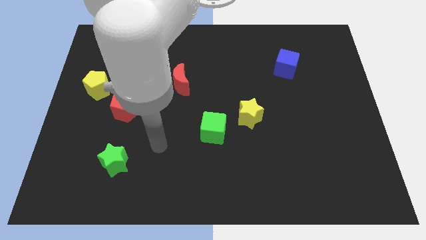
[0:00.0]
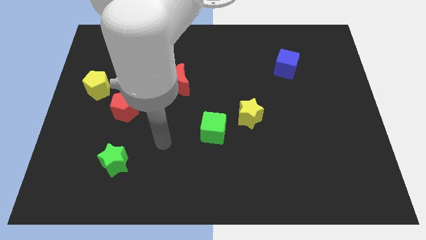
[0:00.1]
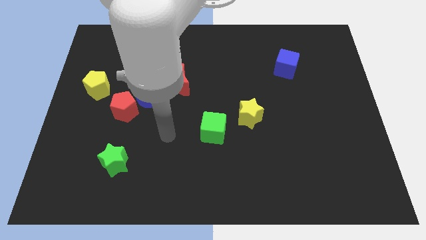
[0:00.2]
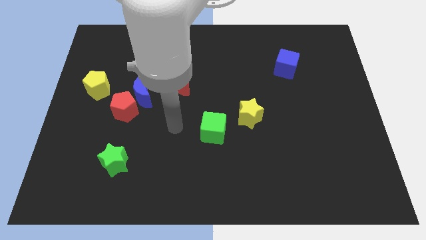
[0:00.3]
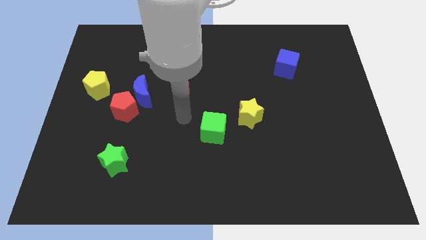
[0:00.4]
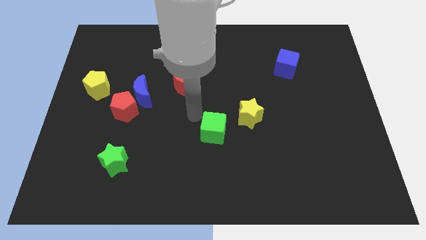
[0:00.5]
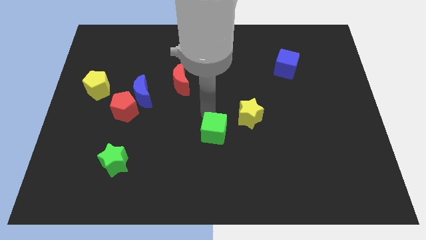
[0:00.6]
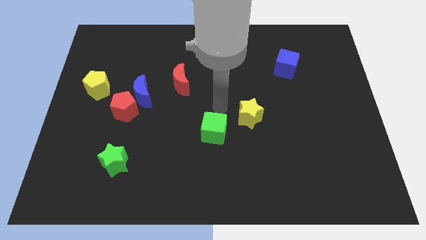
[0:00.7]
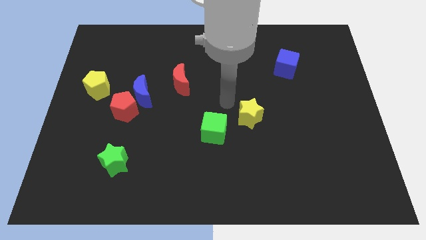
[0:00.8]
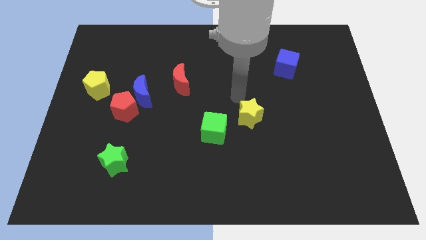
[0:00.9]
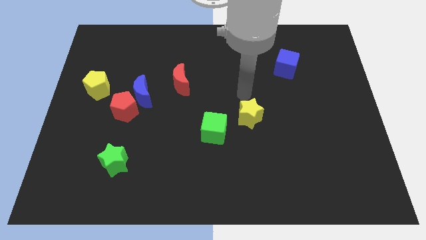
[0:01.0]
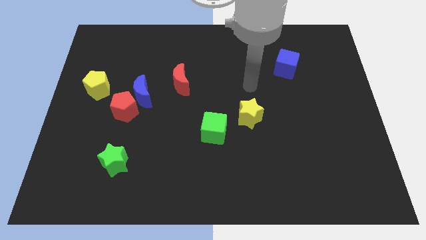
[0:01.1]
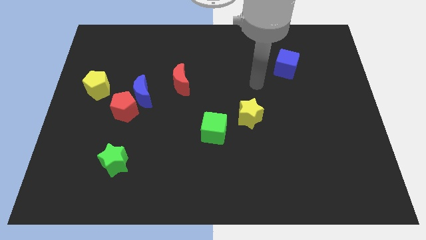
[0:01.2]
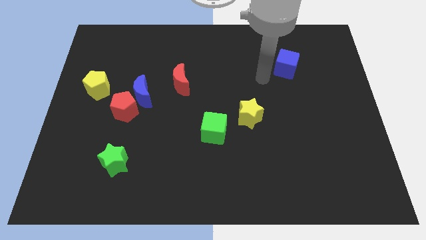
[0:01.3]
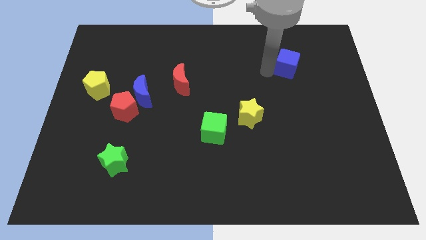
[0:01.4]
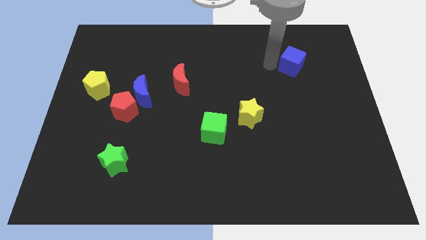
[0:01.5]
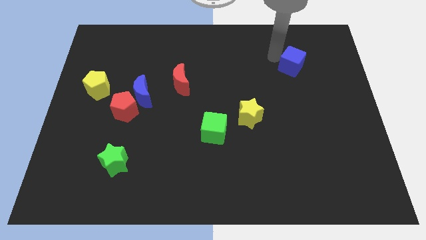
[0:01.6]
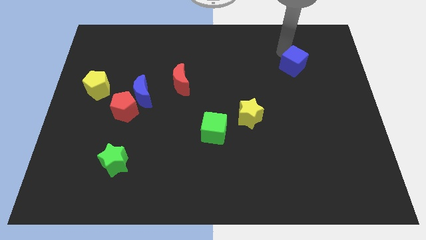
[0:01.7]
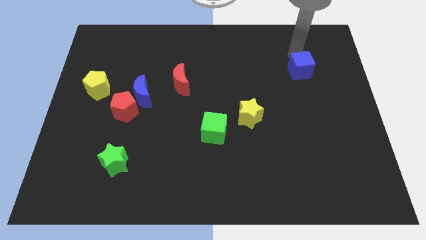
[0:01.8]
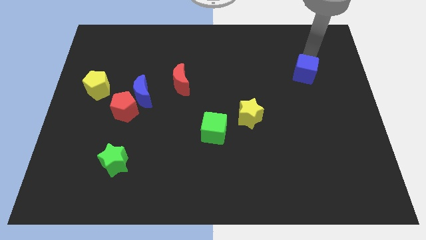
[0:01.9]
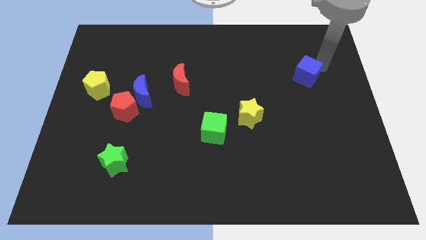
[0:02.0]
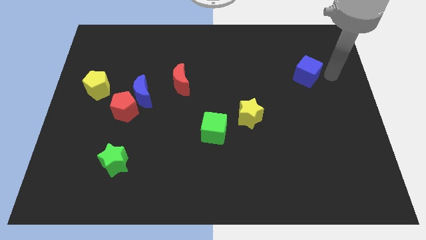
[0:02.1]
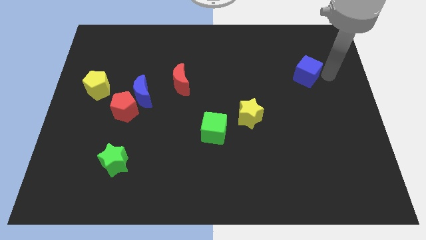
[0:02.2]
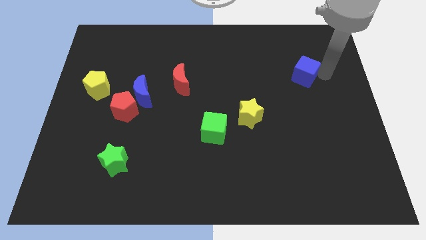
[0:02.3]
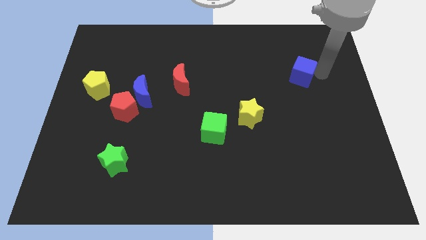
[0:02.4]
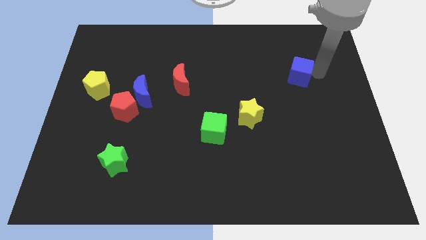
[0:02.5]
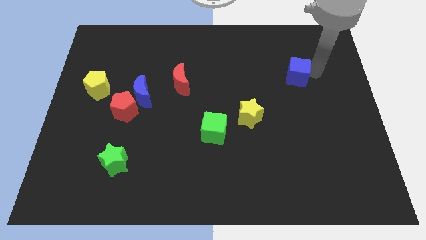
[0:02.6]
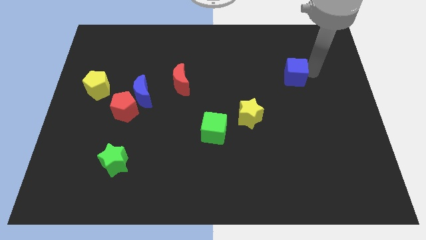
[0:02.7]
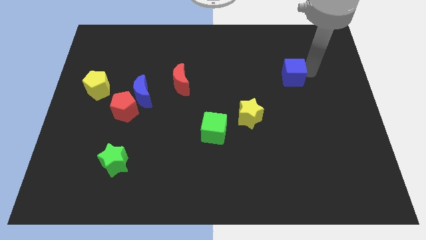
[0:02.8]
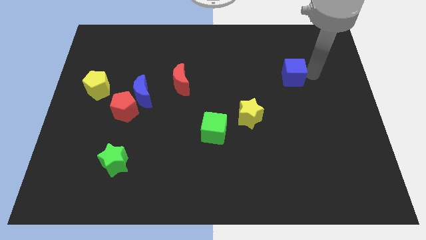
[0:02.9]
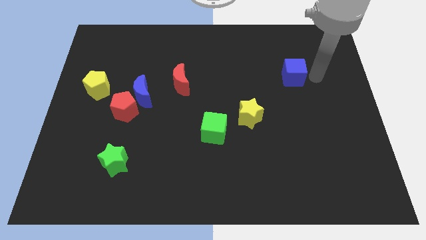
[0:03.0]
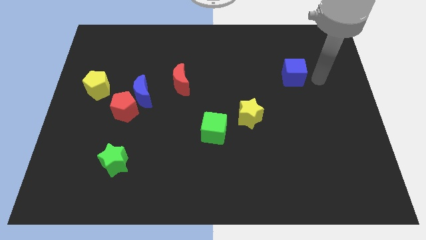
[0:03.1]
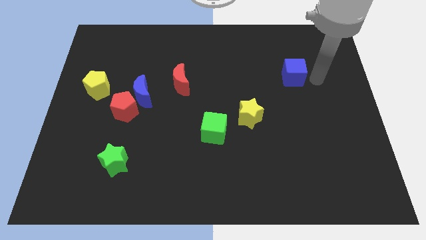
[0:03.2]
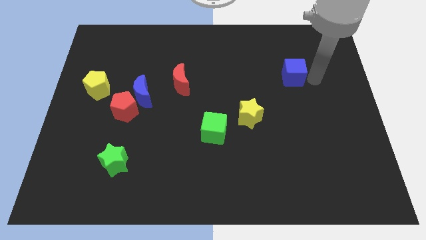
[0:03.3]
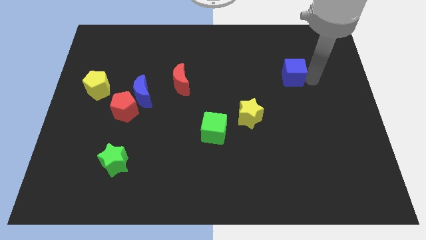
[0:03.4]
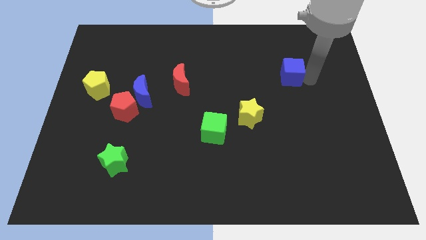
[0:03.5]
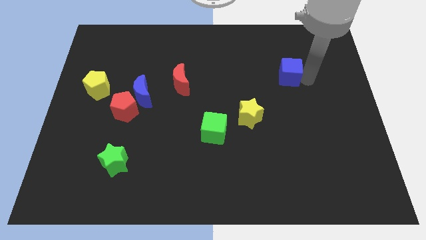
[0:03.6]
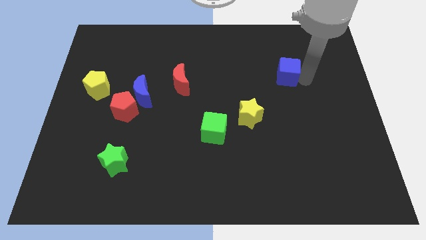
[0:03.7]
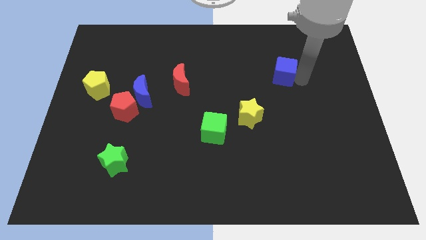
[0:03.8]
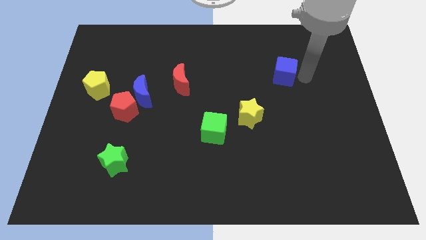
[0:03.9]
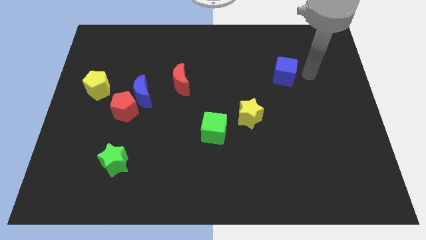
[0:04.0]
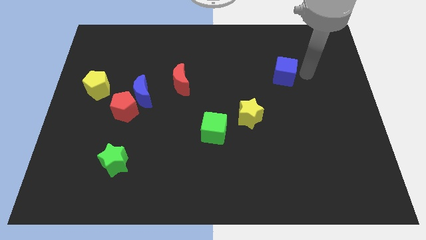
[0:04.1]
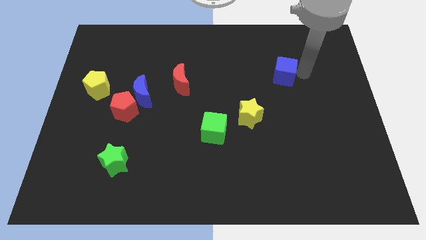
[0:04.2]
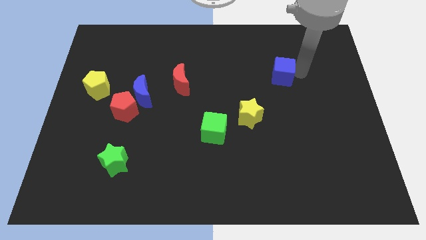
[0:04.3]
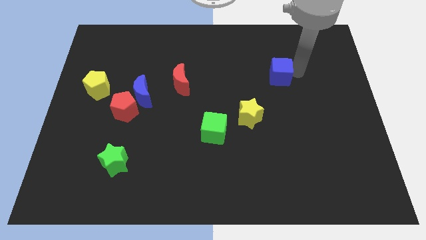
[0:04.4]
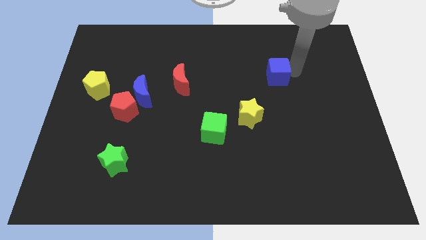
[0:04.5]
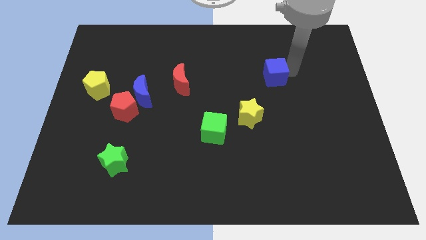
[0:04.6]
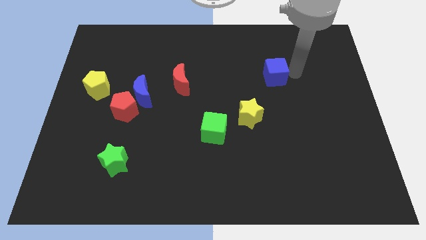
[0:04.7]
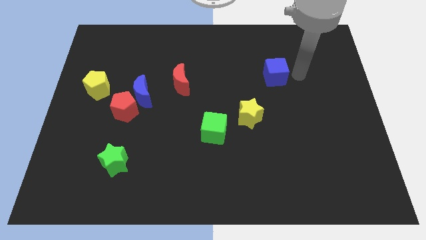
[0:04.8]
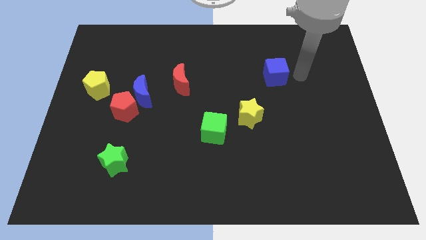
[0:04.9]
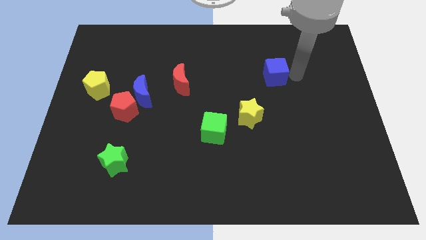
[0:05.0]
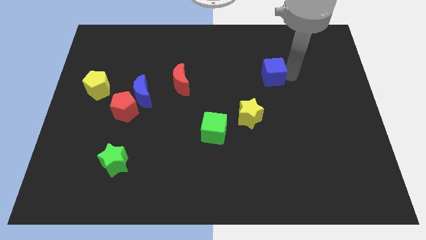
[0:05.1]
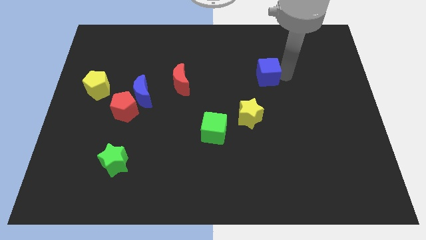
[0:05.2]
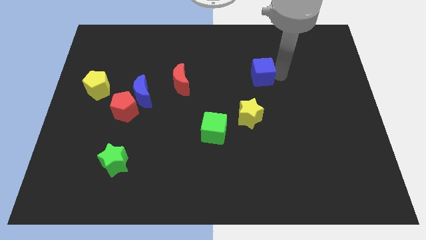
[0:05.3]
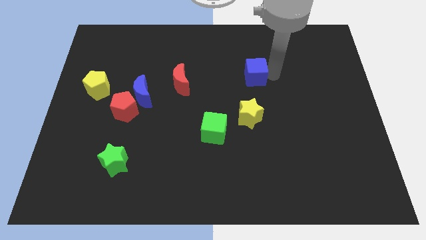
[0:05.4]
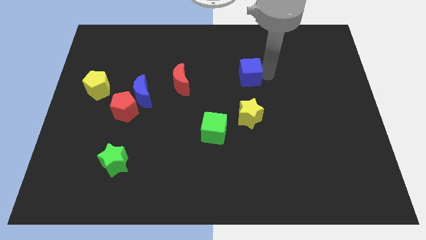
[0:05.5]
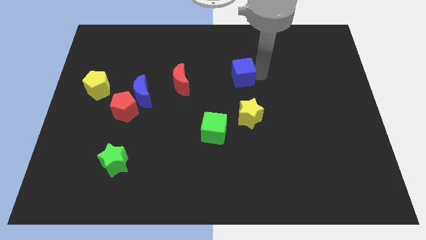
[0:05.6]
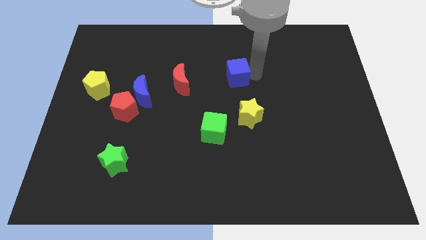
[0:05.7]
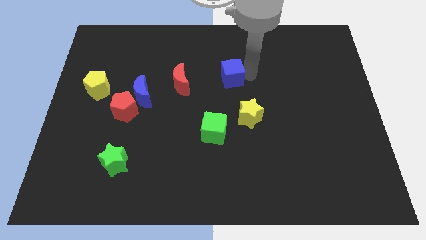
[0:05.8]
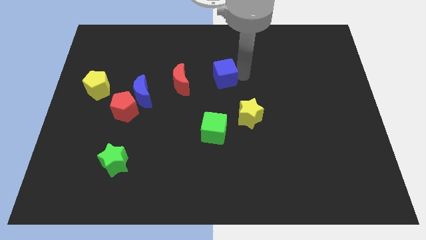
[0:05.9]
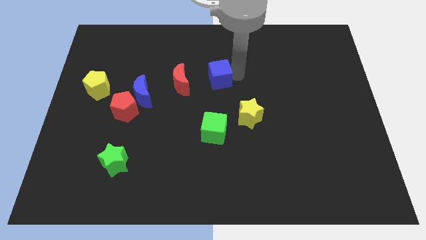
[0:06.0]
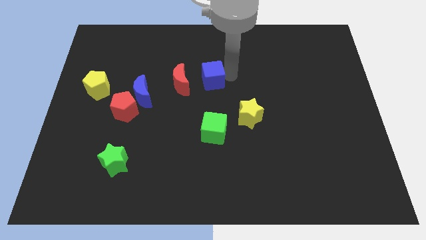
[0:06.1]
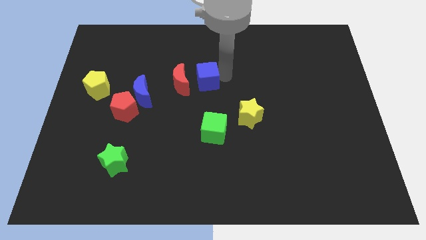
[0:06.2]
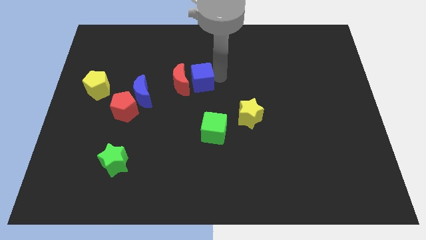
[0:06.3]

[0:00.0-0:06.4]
push the blue cube to the red moon
